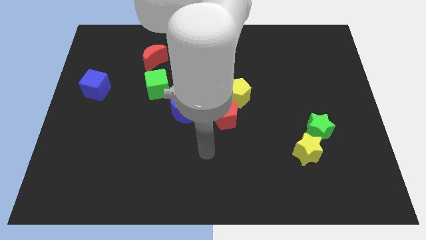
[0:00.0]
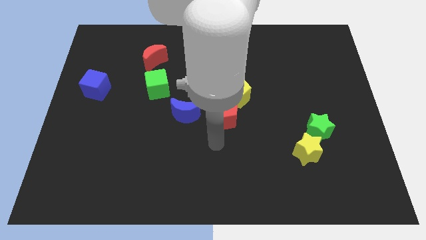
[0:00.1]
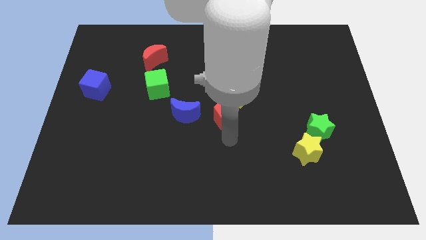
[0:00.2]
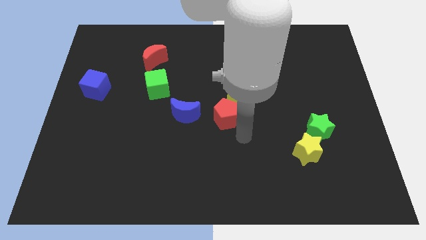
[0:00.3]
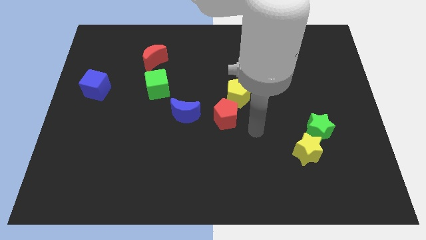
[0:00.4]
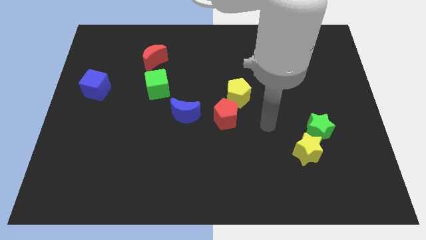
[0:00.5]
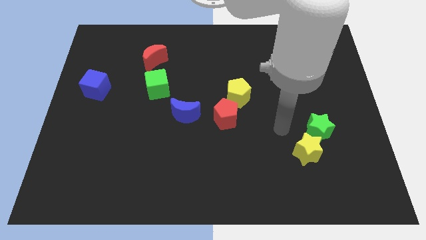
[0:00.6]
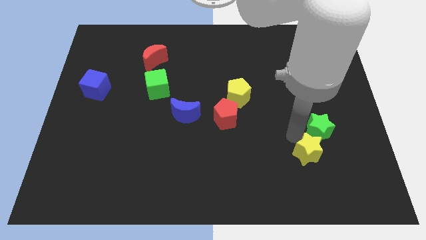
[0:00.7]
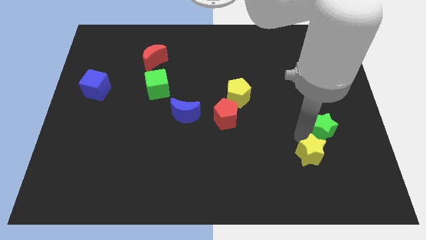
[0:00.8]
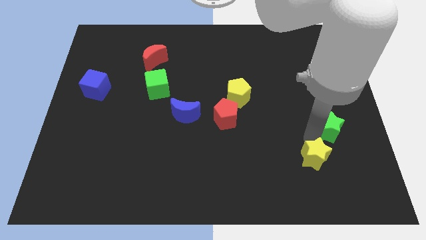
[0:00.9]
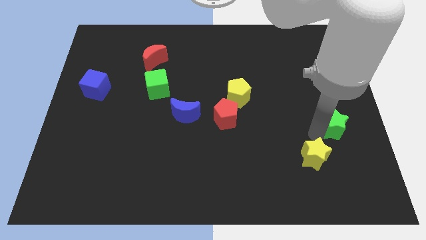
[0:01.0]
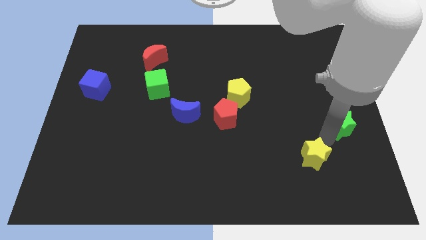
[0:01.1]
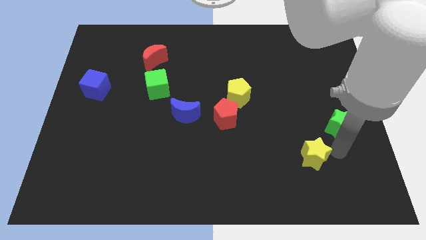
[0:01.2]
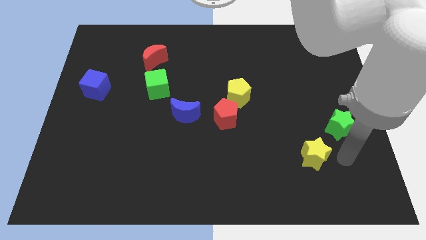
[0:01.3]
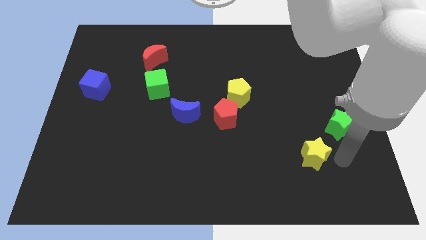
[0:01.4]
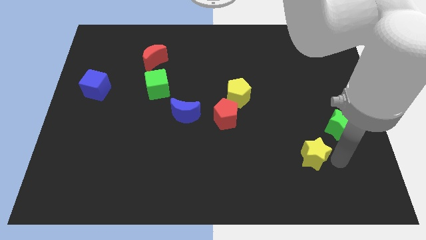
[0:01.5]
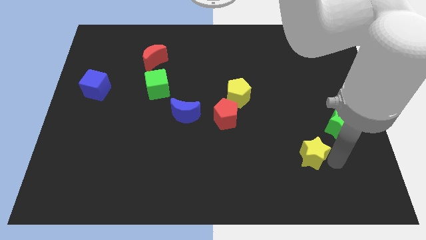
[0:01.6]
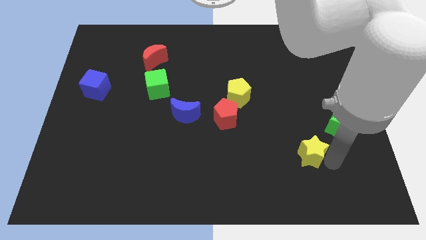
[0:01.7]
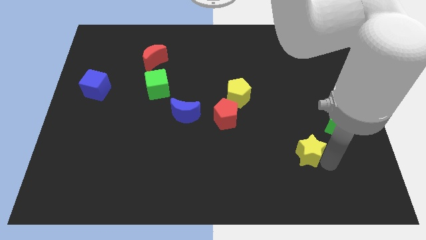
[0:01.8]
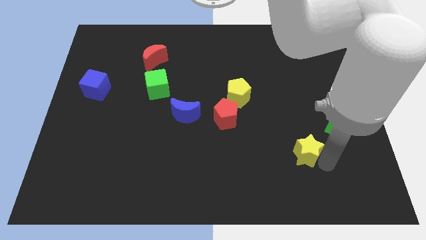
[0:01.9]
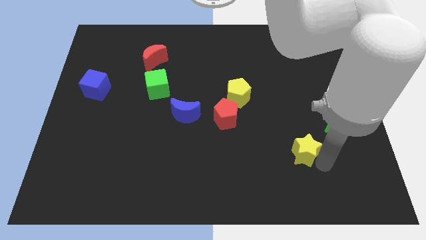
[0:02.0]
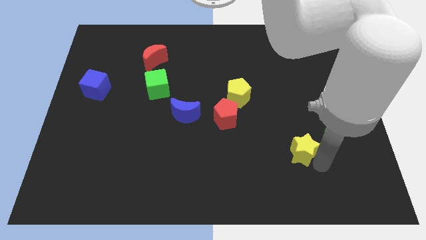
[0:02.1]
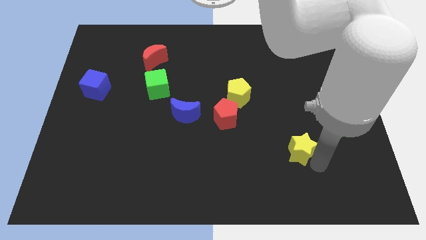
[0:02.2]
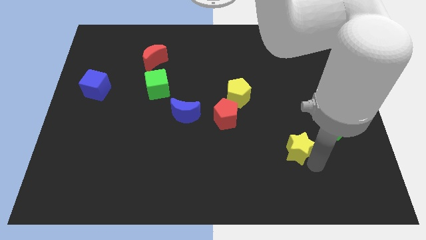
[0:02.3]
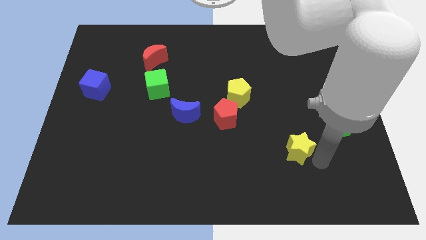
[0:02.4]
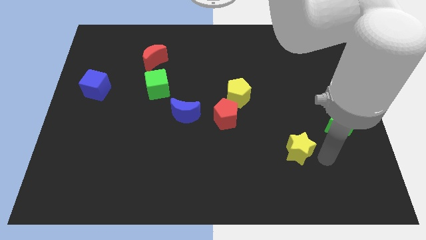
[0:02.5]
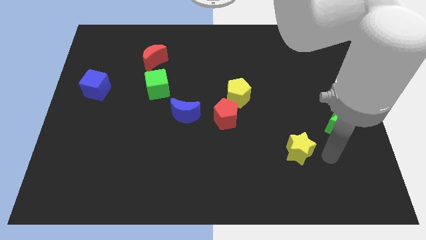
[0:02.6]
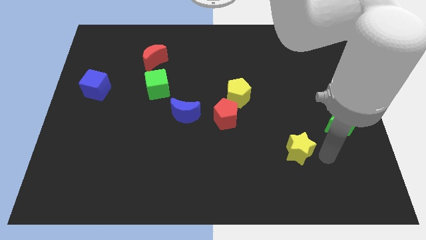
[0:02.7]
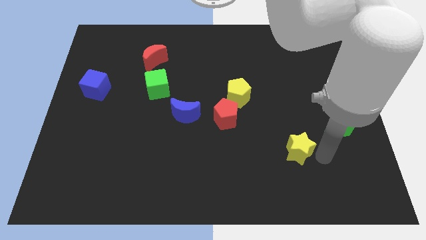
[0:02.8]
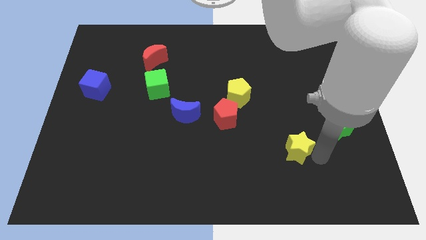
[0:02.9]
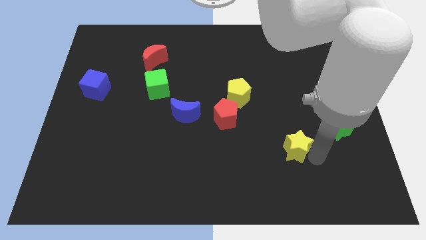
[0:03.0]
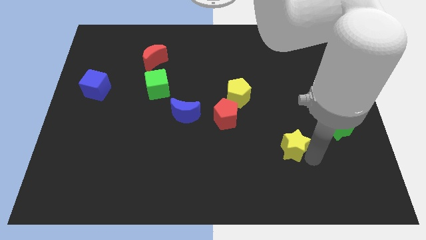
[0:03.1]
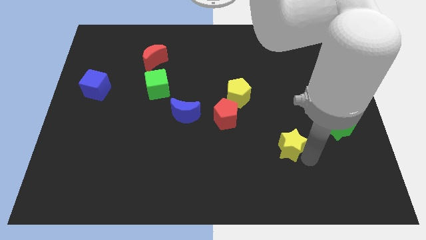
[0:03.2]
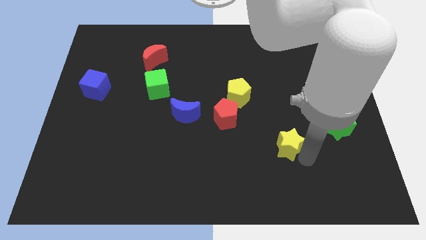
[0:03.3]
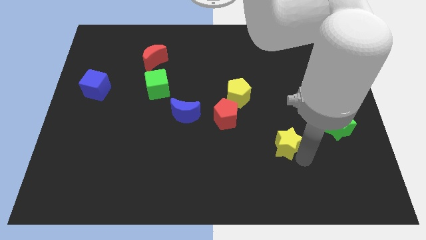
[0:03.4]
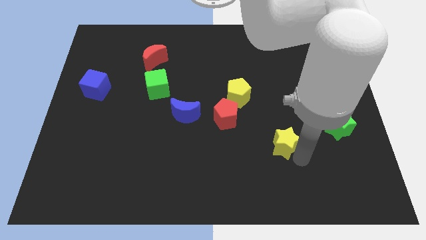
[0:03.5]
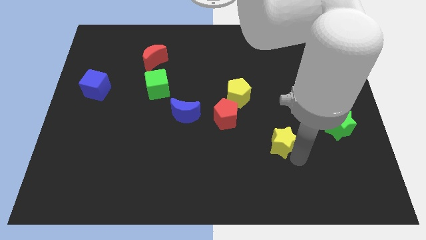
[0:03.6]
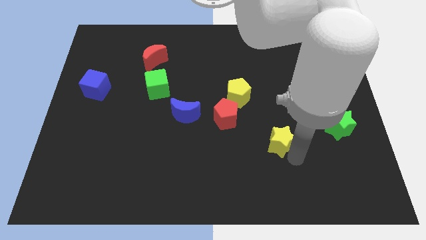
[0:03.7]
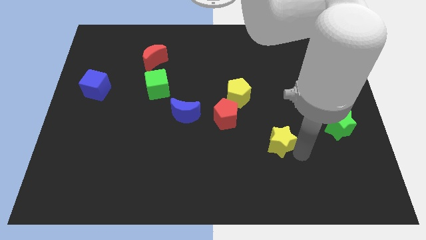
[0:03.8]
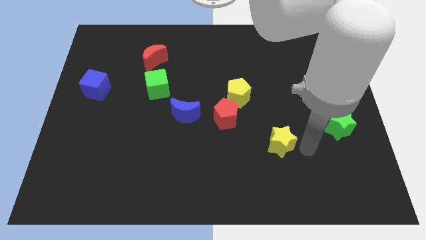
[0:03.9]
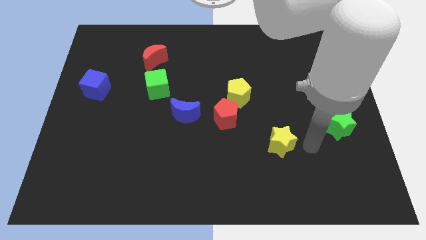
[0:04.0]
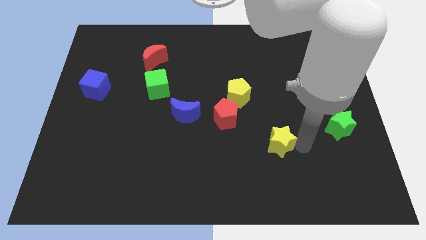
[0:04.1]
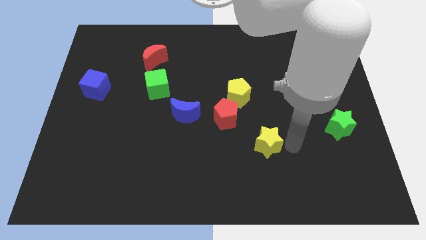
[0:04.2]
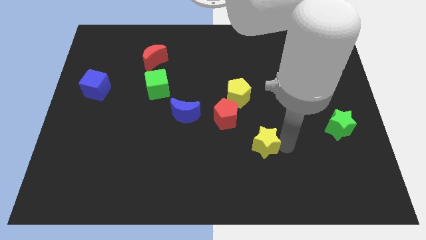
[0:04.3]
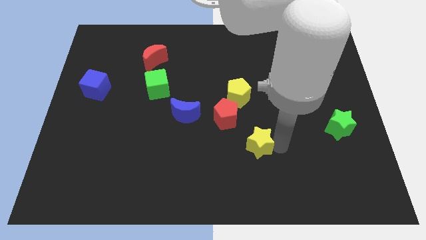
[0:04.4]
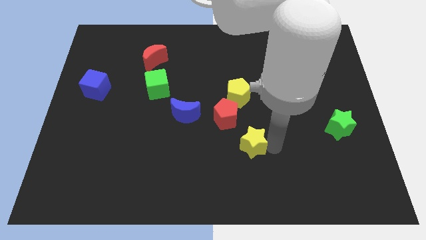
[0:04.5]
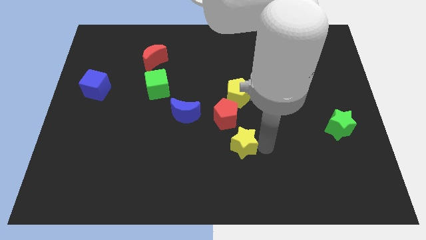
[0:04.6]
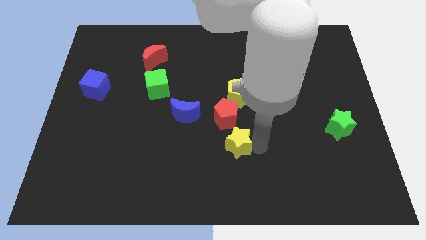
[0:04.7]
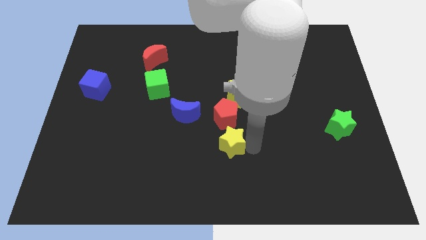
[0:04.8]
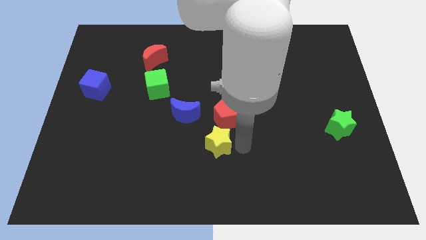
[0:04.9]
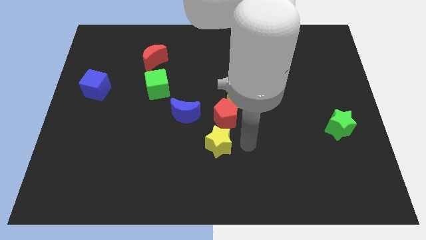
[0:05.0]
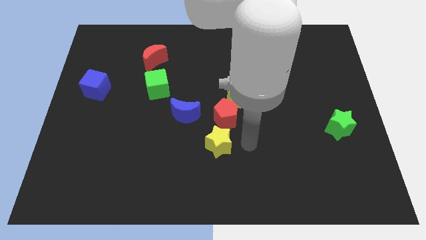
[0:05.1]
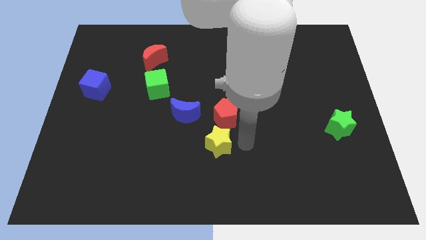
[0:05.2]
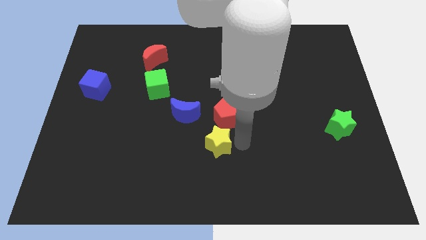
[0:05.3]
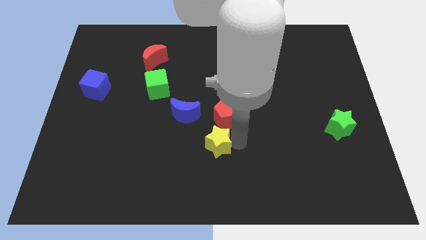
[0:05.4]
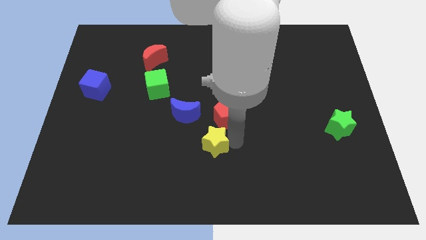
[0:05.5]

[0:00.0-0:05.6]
move the yellow star left

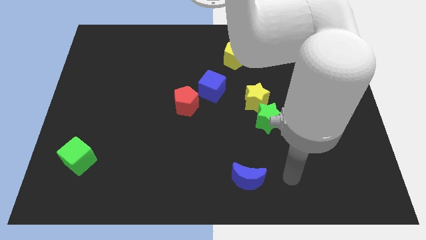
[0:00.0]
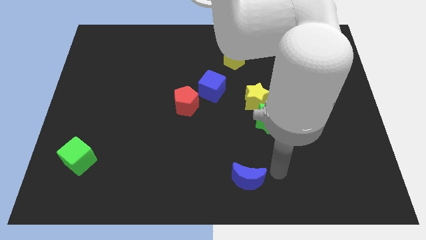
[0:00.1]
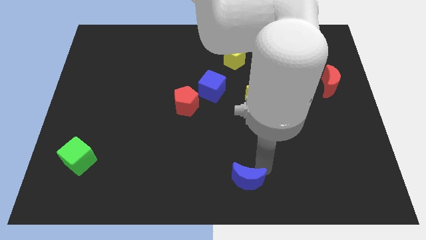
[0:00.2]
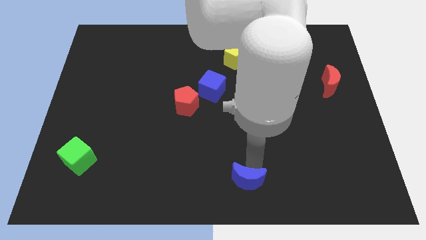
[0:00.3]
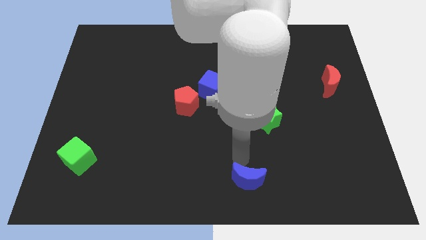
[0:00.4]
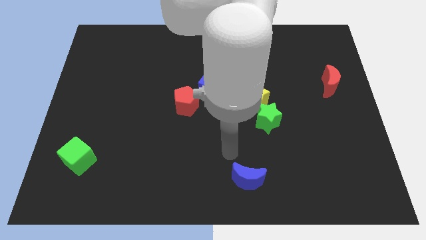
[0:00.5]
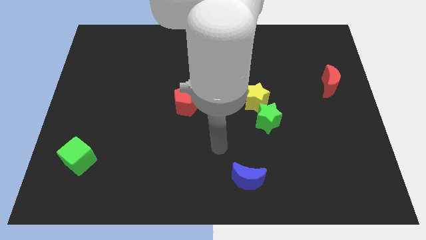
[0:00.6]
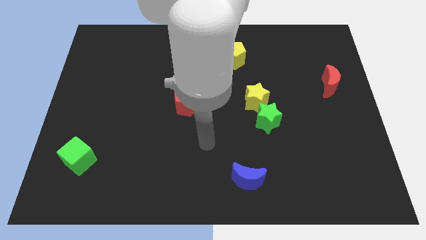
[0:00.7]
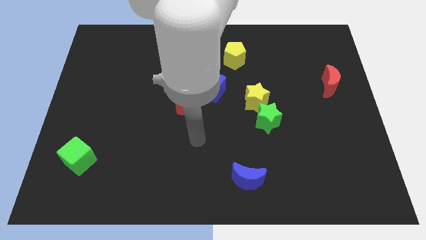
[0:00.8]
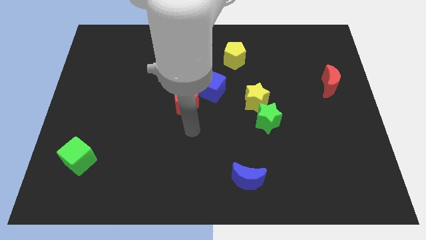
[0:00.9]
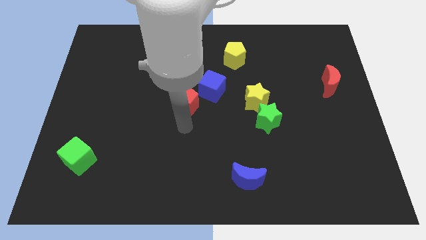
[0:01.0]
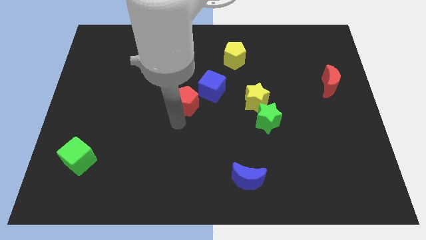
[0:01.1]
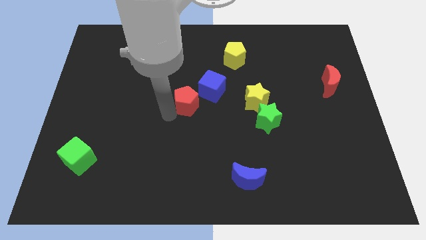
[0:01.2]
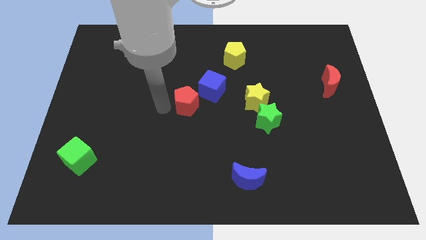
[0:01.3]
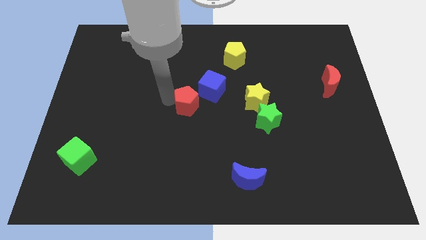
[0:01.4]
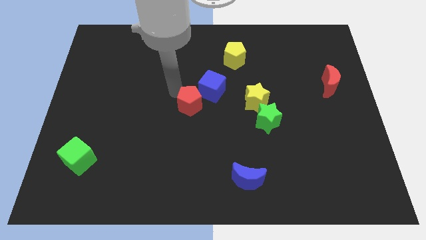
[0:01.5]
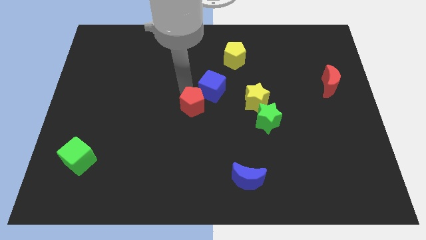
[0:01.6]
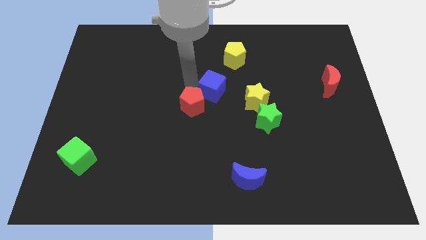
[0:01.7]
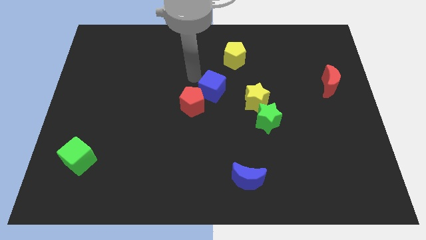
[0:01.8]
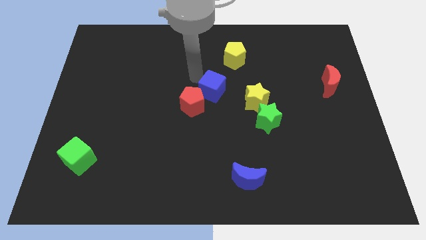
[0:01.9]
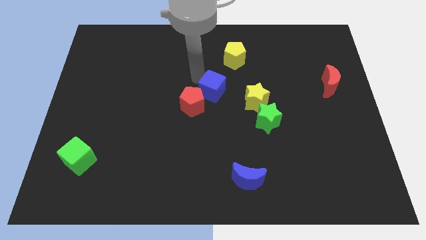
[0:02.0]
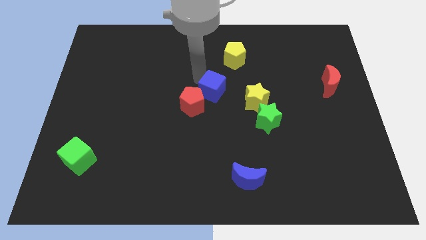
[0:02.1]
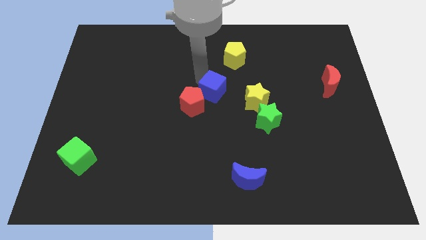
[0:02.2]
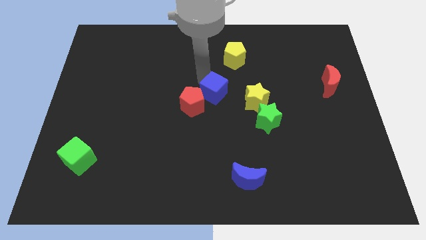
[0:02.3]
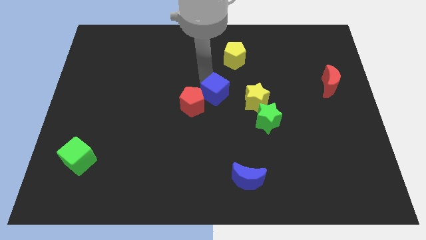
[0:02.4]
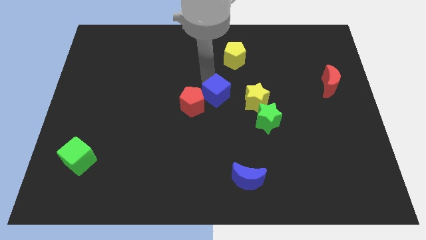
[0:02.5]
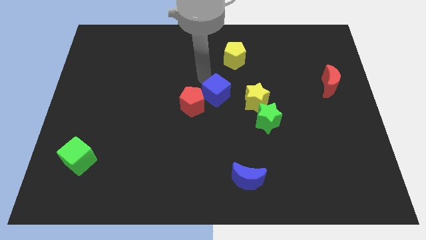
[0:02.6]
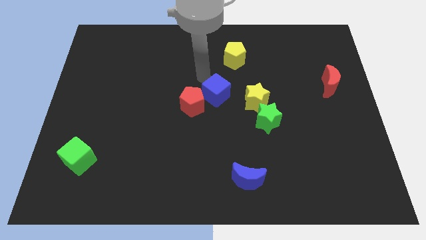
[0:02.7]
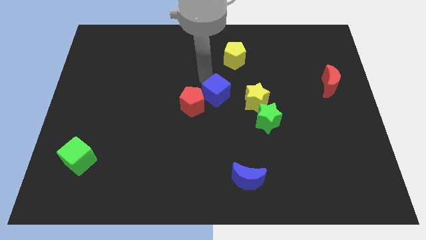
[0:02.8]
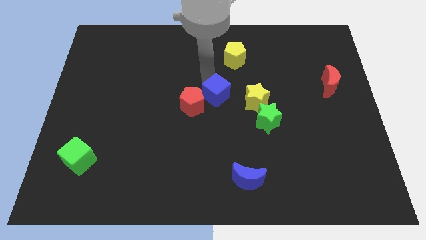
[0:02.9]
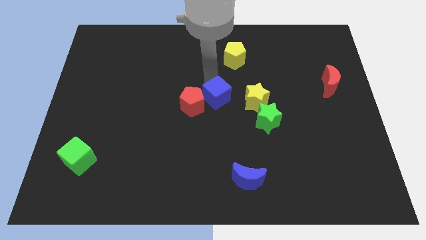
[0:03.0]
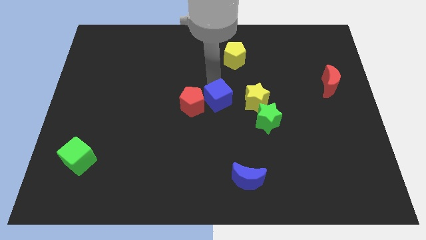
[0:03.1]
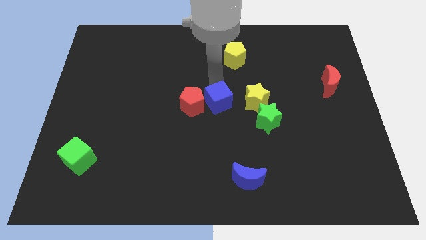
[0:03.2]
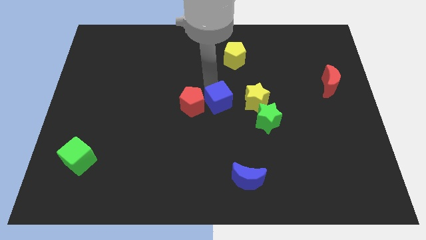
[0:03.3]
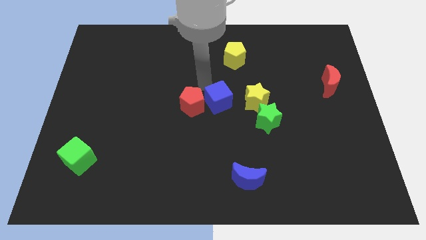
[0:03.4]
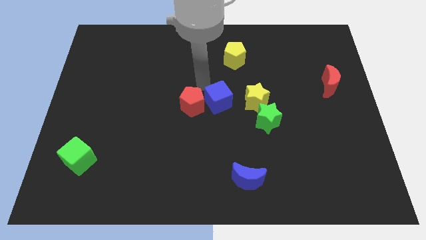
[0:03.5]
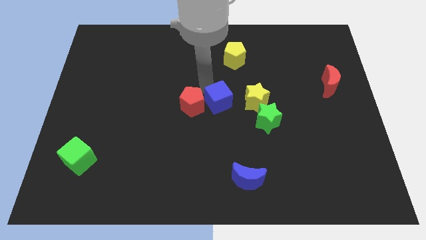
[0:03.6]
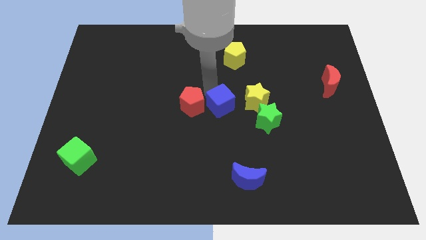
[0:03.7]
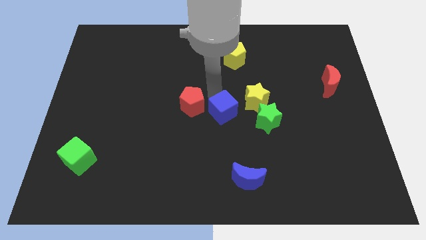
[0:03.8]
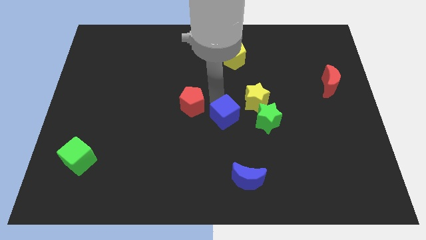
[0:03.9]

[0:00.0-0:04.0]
slightly push the blue cube down and to the right diagonally
